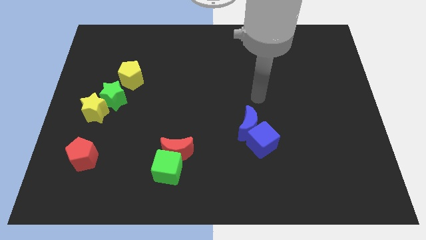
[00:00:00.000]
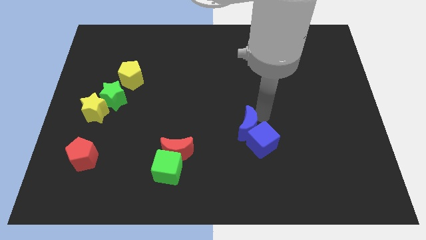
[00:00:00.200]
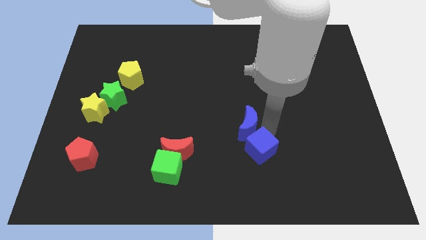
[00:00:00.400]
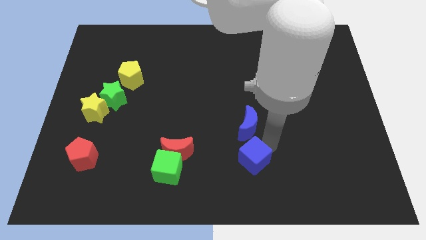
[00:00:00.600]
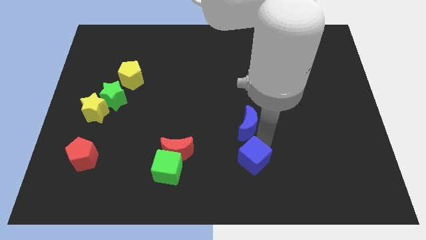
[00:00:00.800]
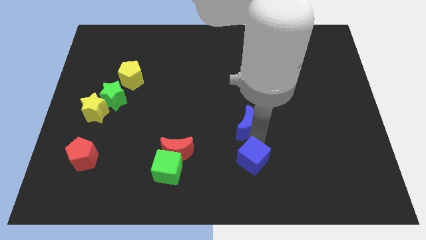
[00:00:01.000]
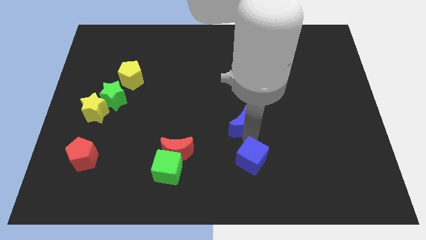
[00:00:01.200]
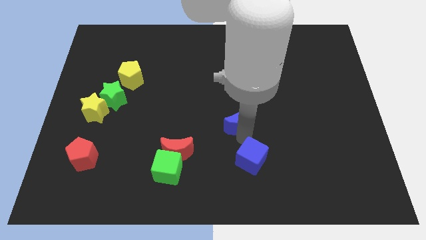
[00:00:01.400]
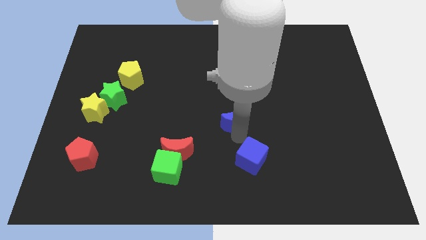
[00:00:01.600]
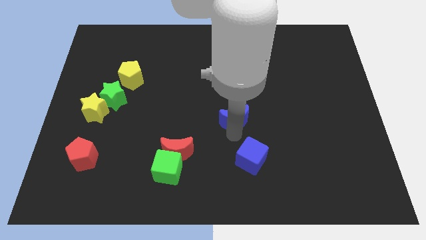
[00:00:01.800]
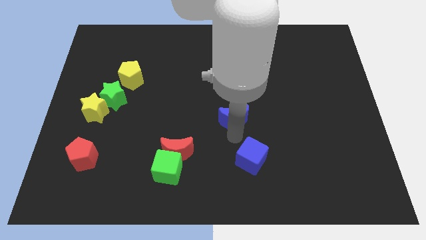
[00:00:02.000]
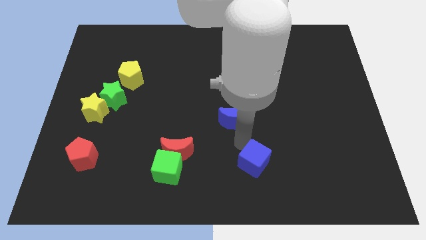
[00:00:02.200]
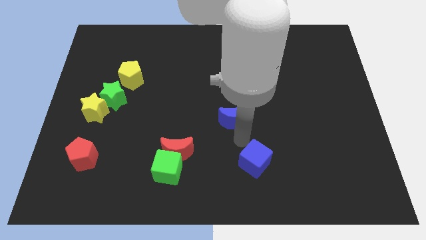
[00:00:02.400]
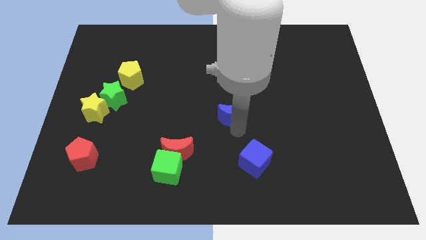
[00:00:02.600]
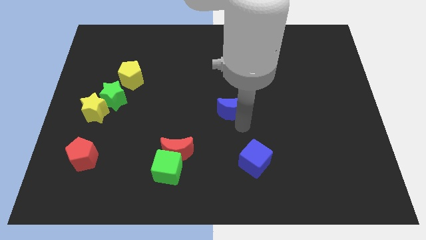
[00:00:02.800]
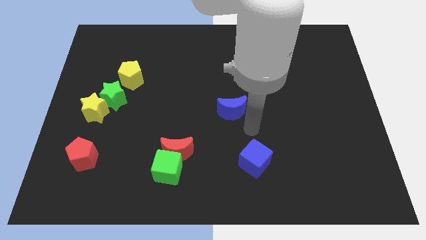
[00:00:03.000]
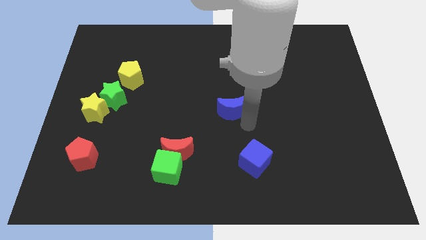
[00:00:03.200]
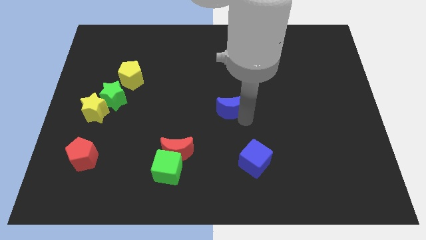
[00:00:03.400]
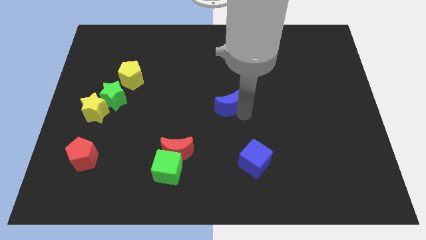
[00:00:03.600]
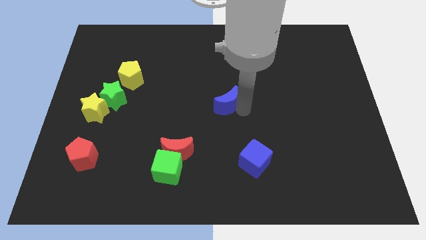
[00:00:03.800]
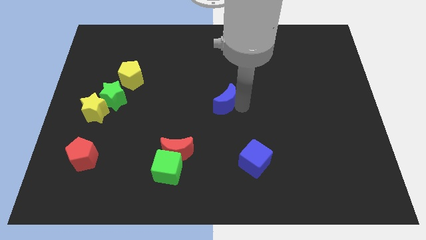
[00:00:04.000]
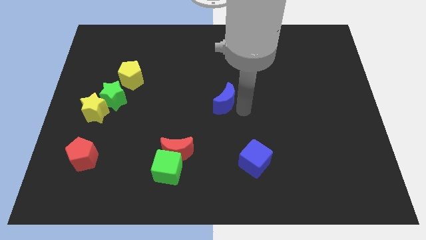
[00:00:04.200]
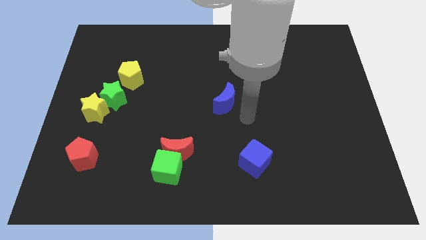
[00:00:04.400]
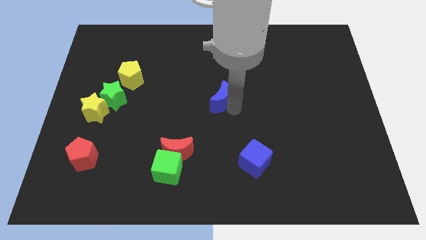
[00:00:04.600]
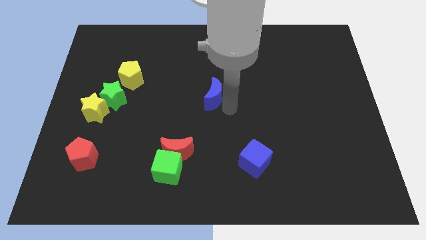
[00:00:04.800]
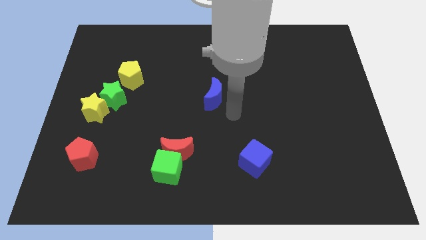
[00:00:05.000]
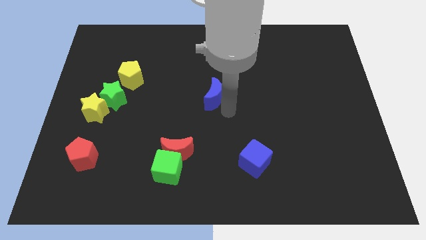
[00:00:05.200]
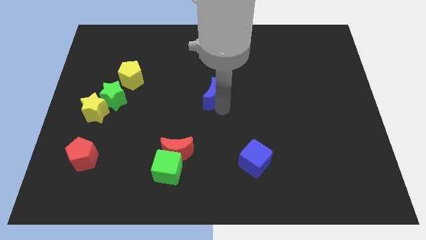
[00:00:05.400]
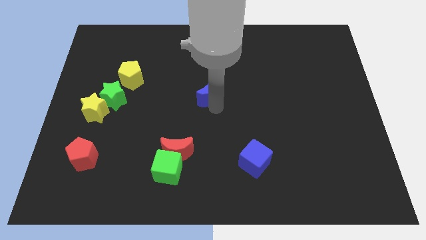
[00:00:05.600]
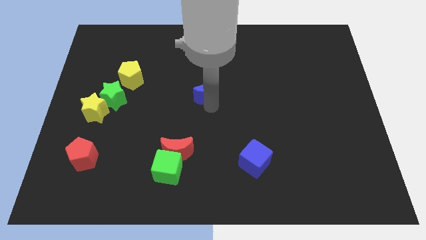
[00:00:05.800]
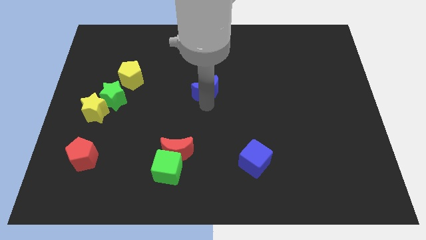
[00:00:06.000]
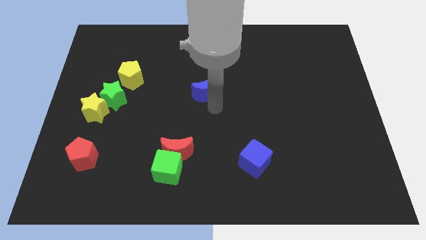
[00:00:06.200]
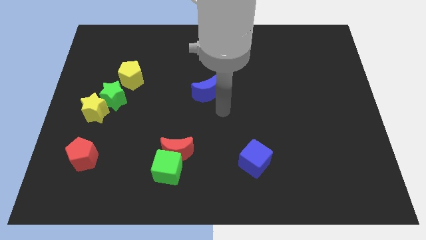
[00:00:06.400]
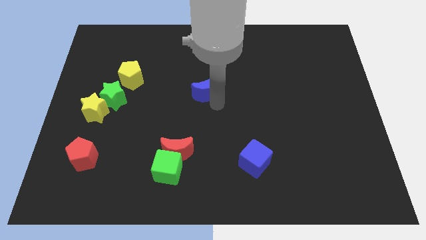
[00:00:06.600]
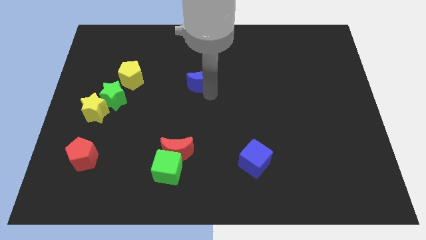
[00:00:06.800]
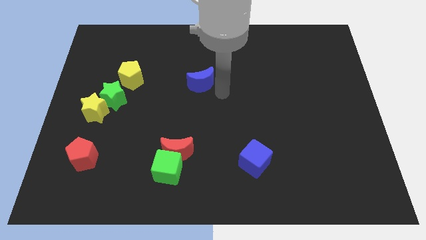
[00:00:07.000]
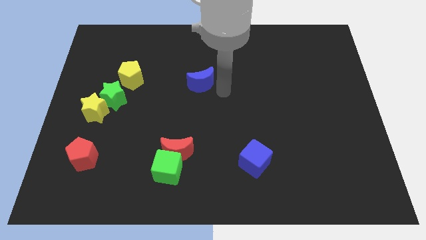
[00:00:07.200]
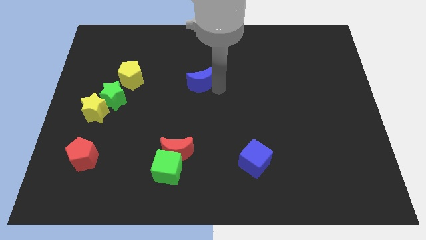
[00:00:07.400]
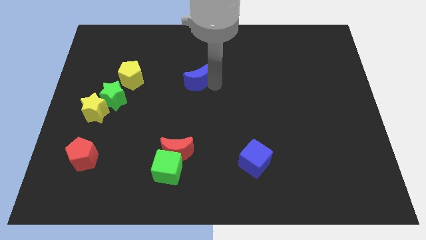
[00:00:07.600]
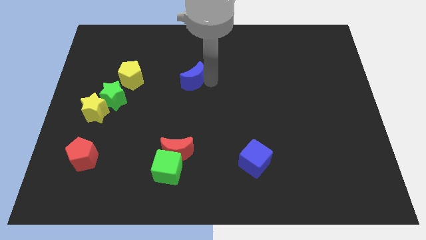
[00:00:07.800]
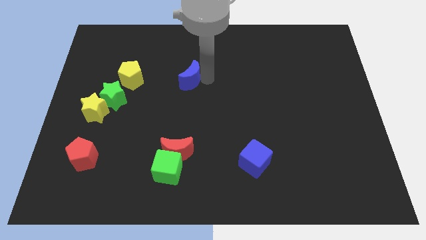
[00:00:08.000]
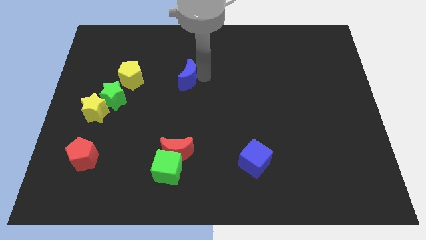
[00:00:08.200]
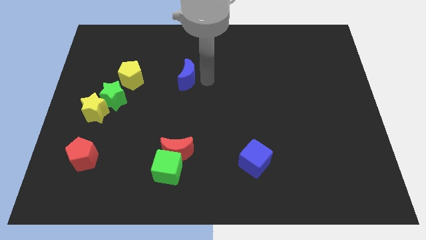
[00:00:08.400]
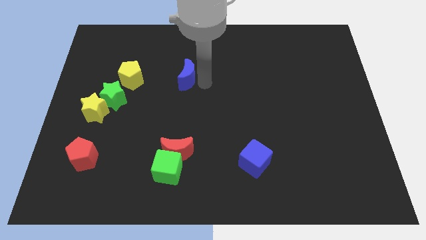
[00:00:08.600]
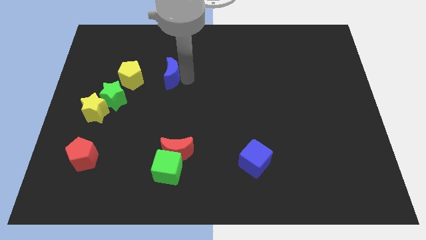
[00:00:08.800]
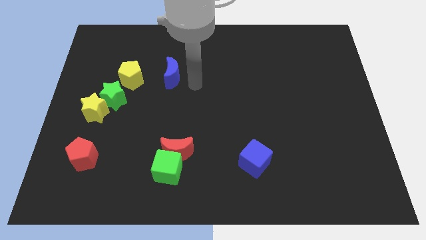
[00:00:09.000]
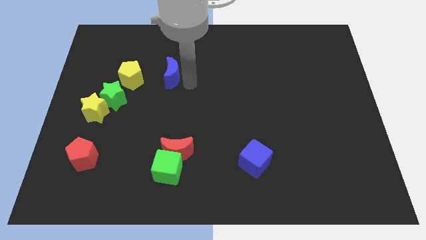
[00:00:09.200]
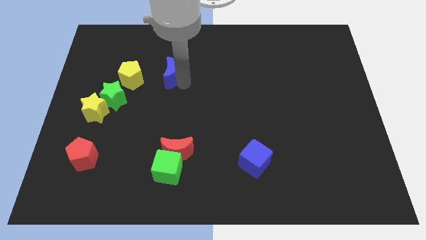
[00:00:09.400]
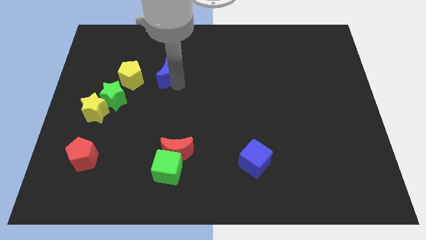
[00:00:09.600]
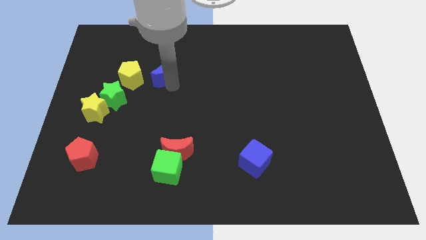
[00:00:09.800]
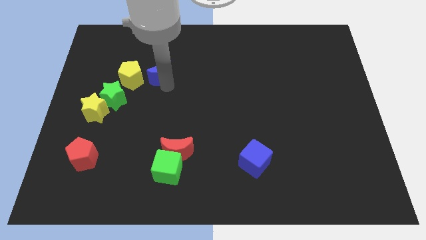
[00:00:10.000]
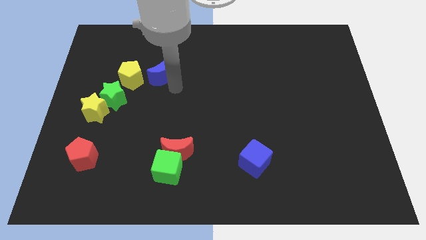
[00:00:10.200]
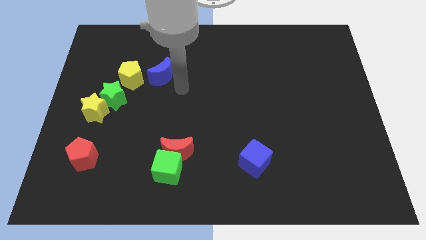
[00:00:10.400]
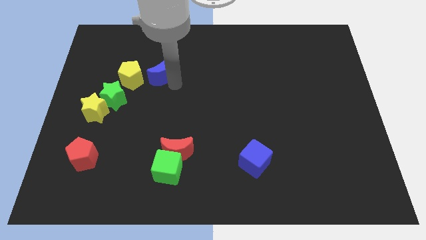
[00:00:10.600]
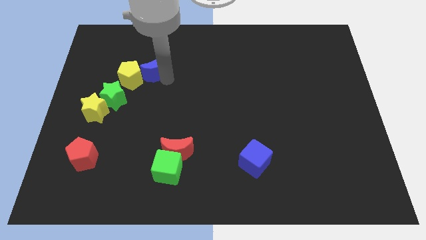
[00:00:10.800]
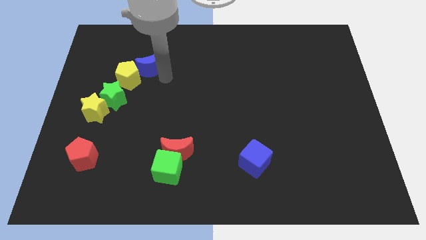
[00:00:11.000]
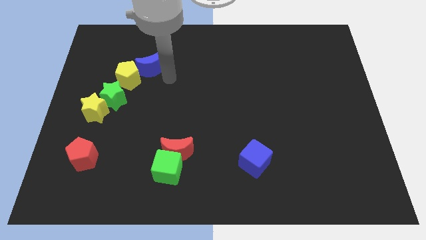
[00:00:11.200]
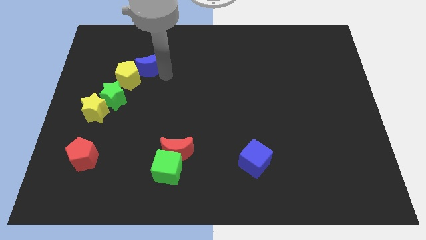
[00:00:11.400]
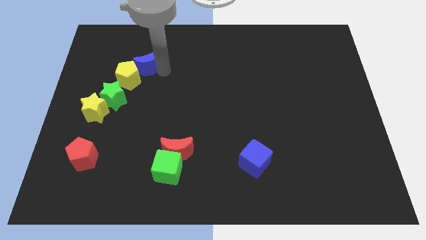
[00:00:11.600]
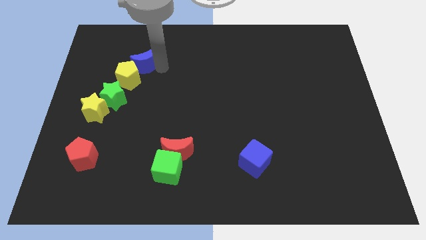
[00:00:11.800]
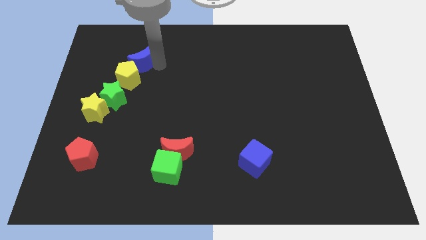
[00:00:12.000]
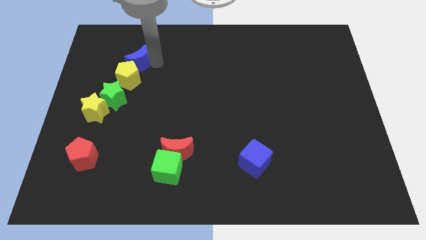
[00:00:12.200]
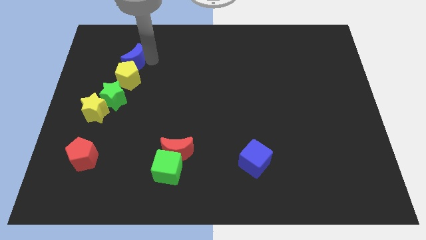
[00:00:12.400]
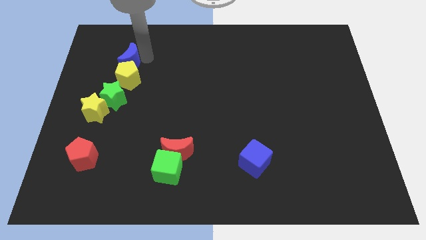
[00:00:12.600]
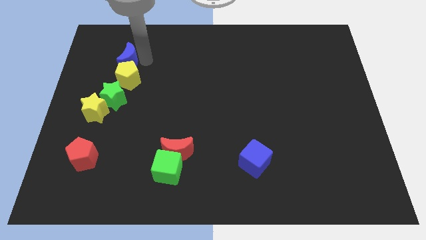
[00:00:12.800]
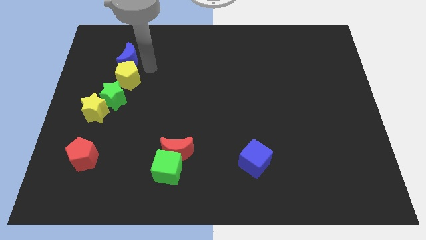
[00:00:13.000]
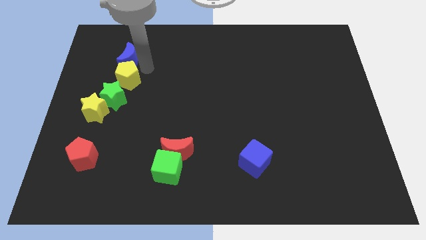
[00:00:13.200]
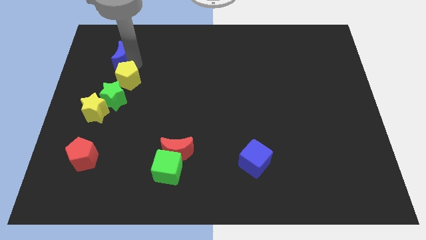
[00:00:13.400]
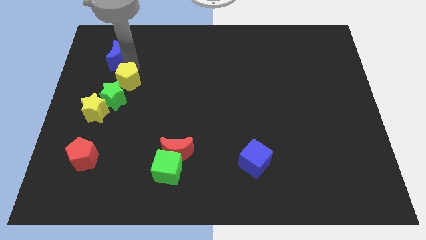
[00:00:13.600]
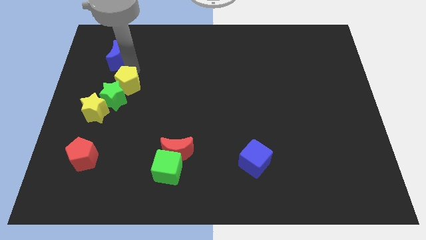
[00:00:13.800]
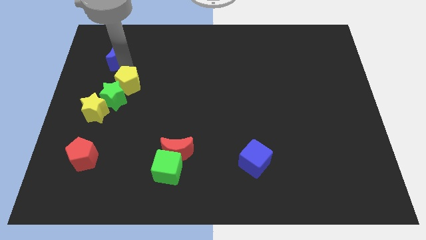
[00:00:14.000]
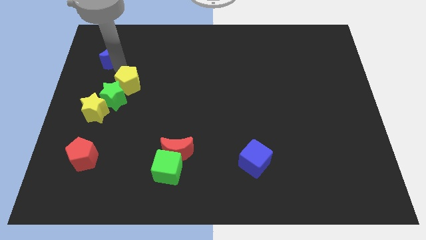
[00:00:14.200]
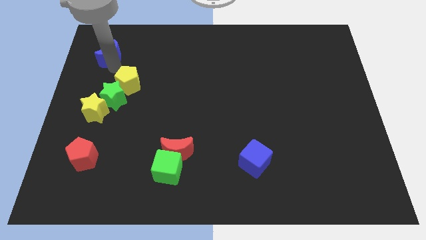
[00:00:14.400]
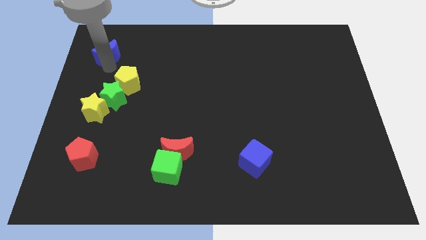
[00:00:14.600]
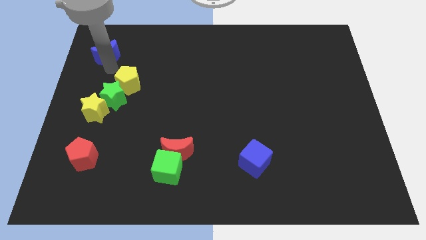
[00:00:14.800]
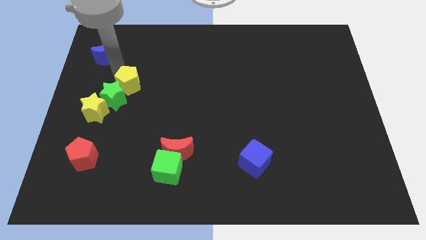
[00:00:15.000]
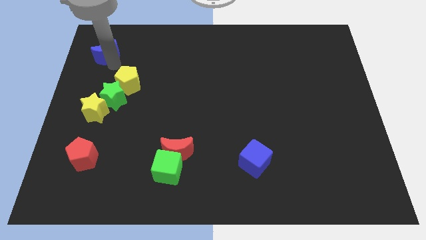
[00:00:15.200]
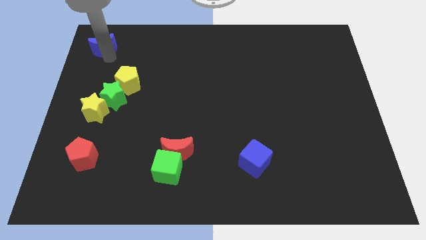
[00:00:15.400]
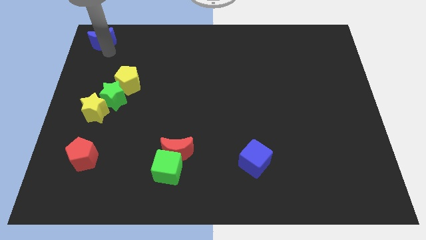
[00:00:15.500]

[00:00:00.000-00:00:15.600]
put the blue moon to the top left
